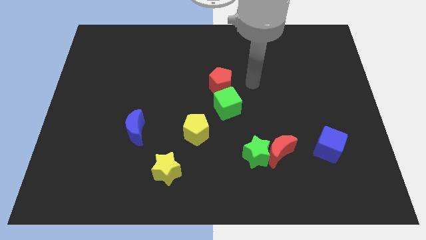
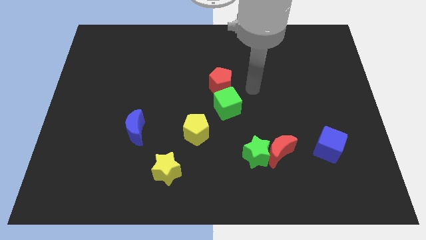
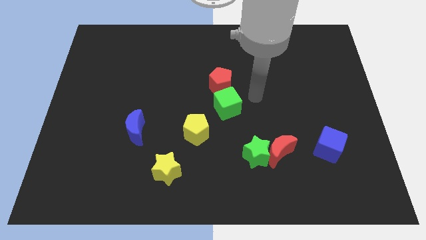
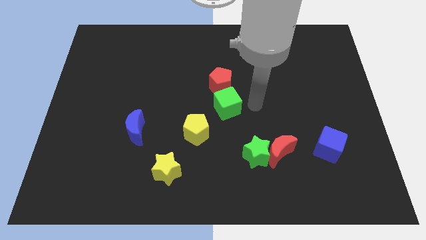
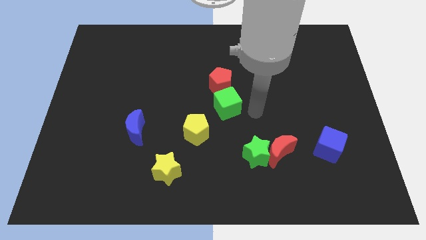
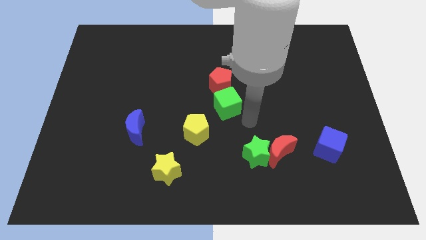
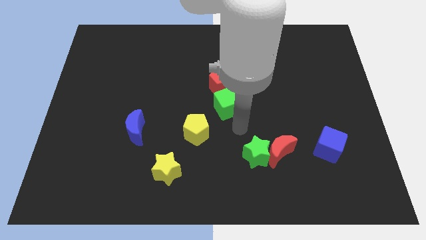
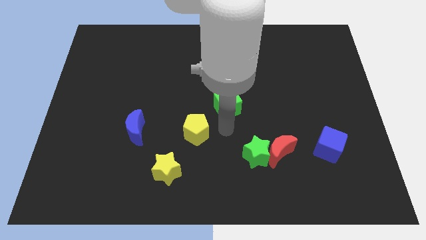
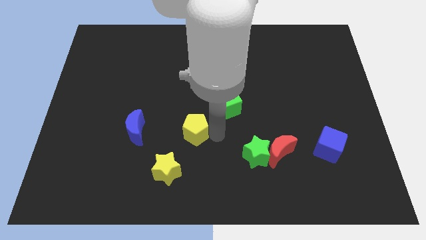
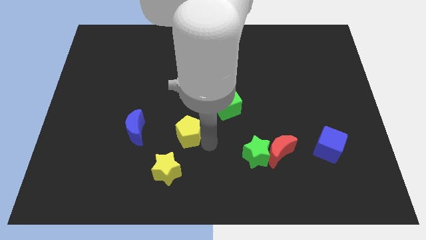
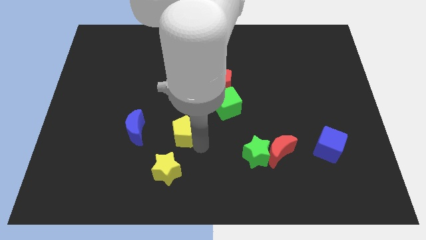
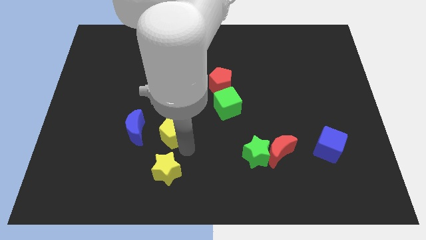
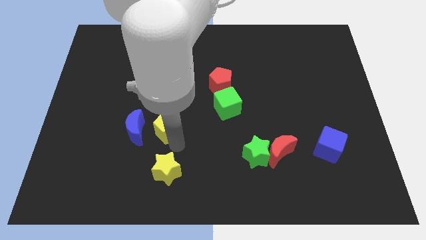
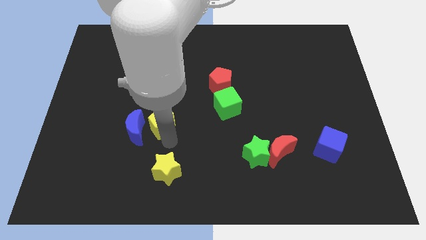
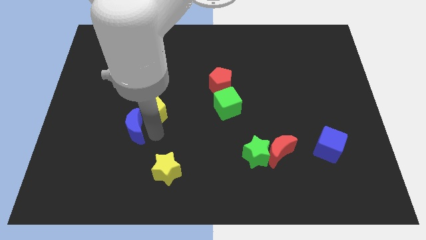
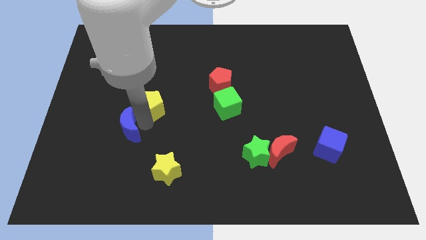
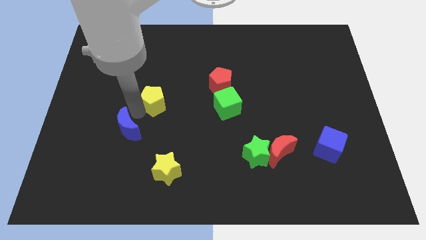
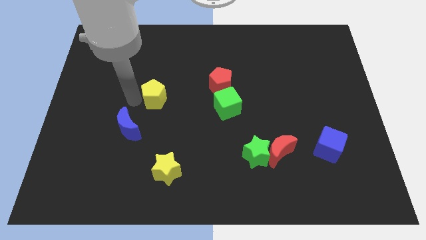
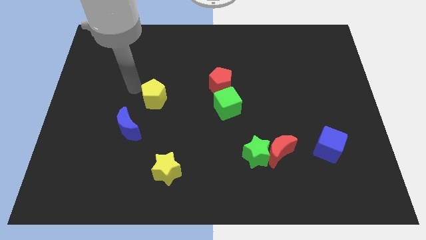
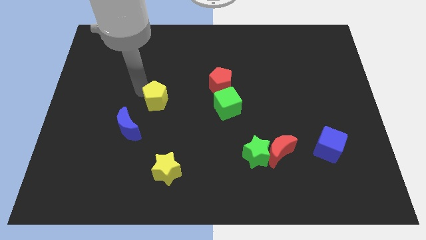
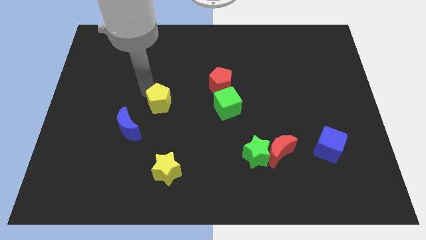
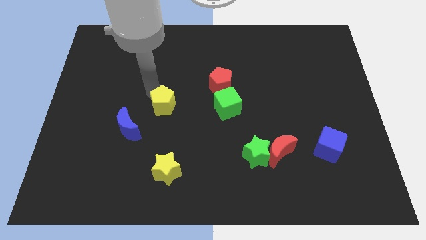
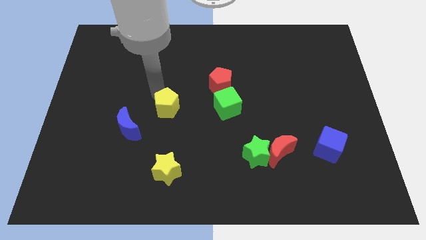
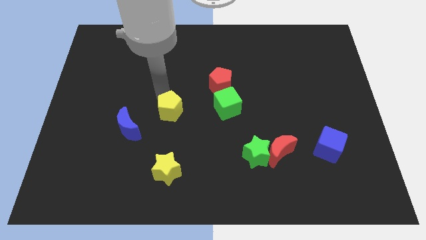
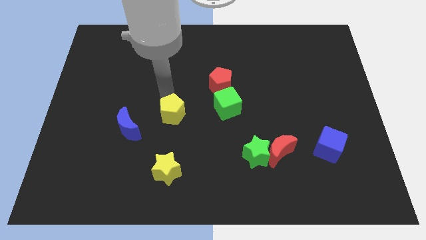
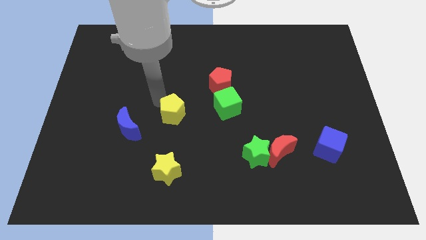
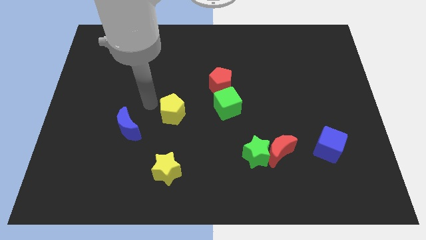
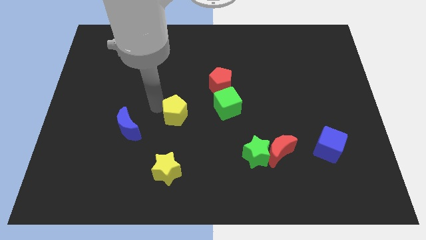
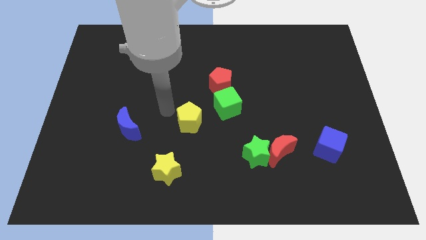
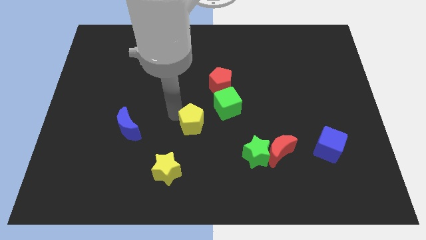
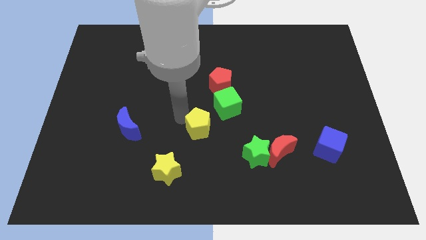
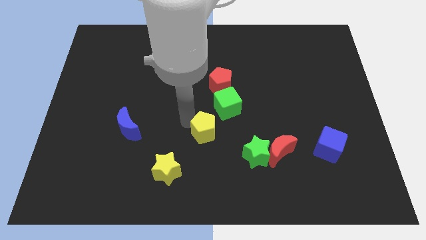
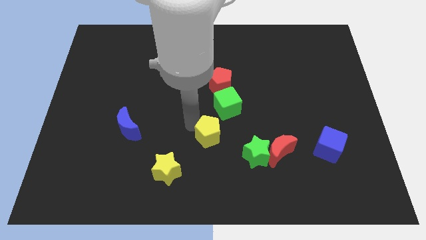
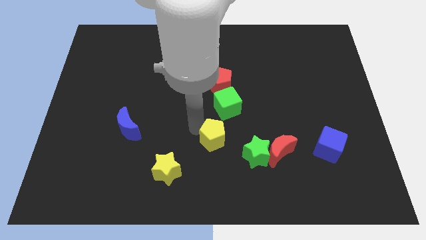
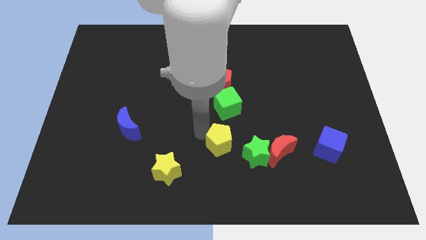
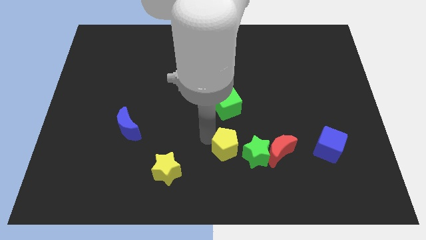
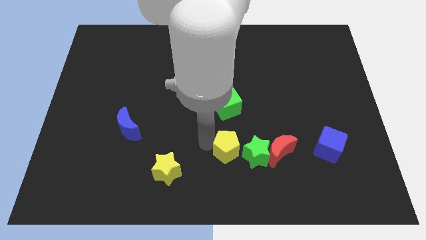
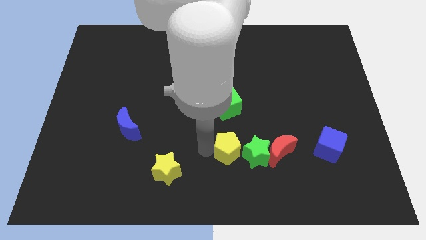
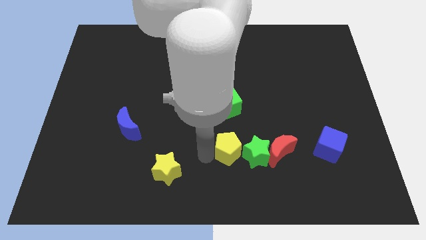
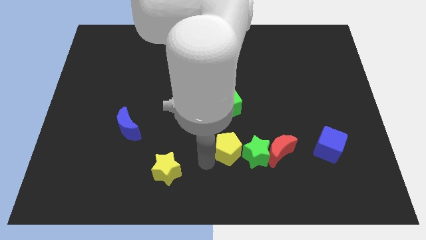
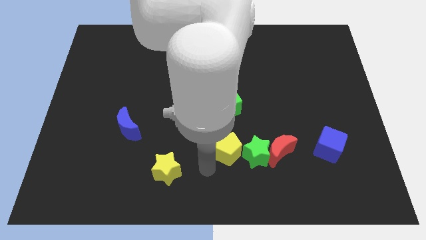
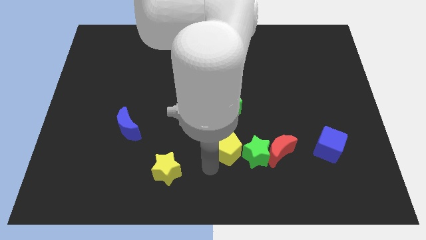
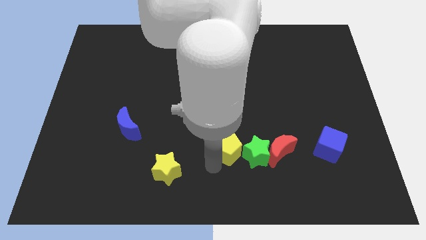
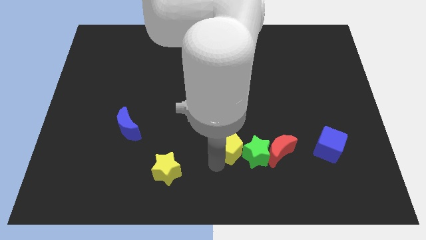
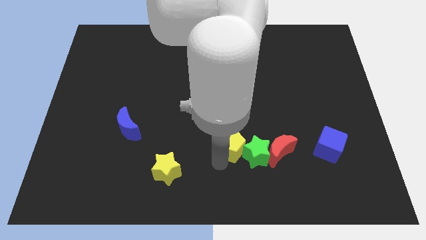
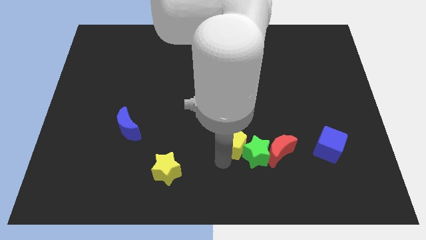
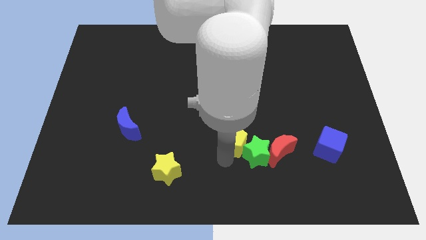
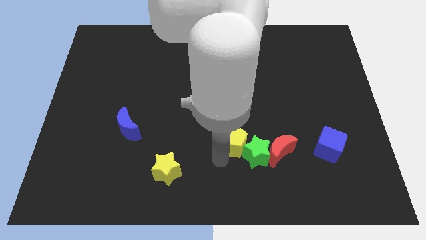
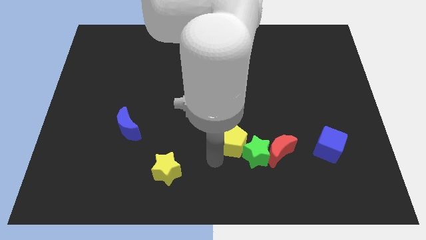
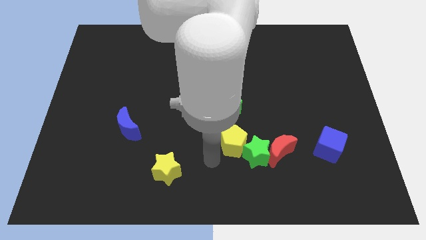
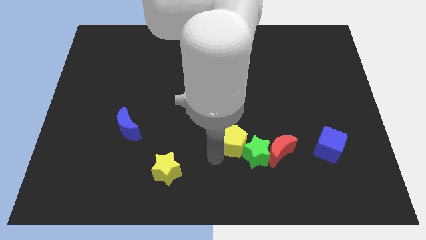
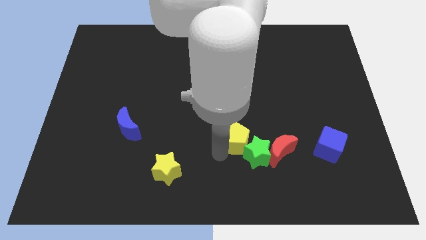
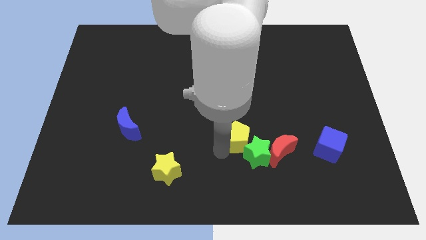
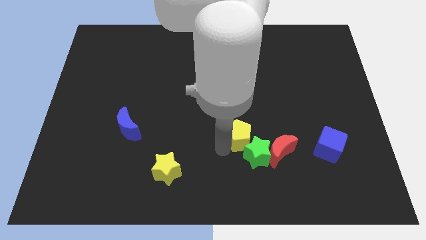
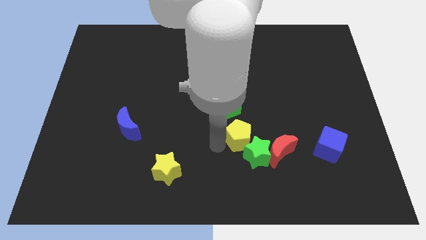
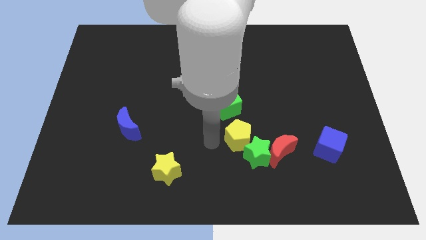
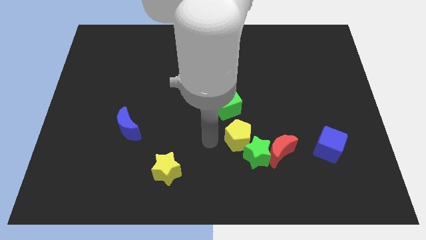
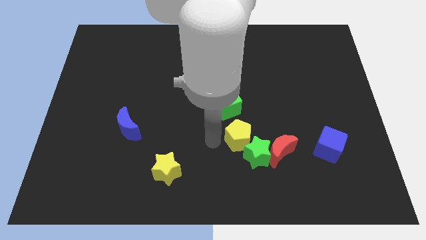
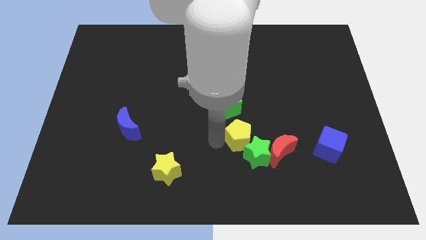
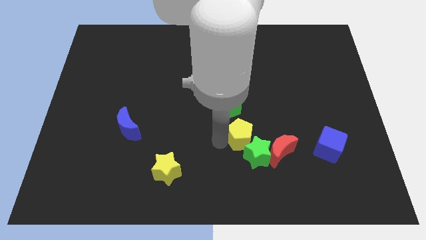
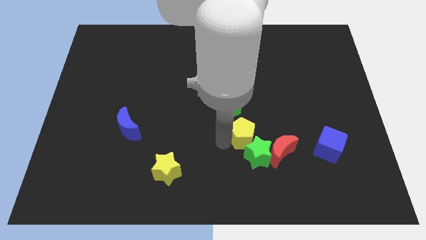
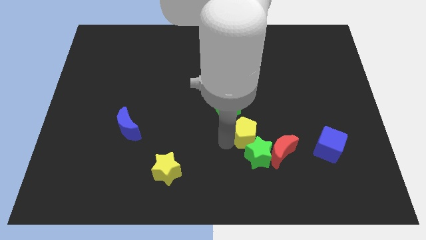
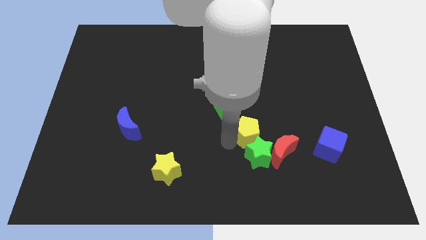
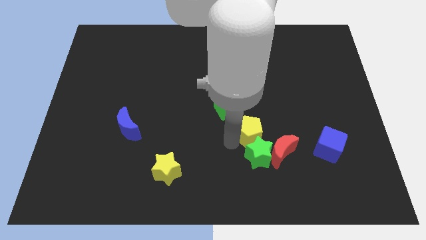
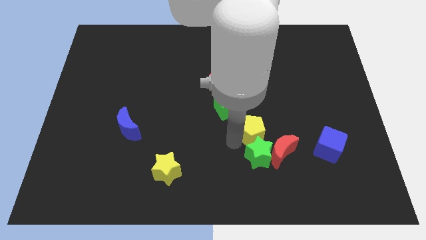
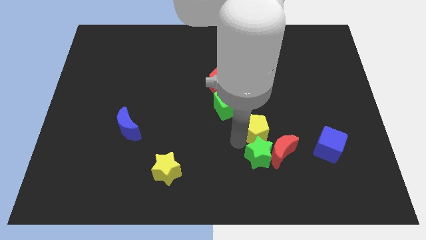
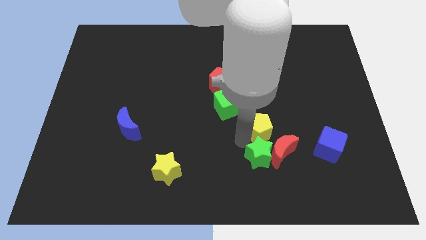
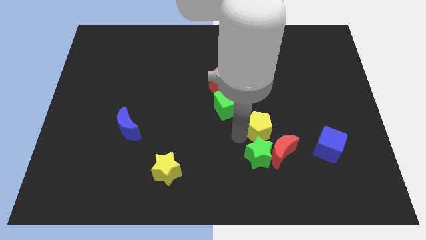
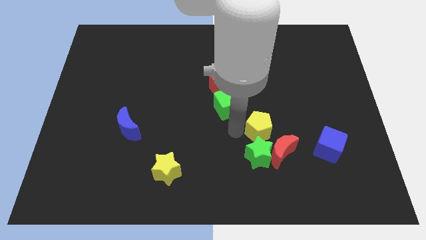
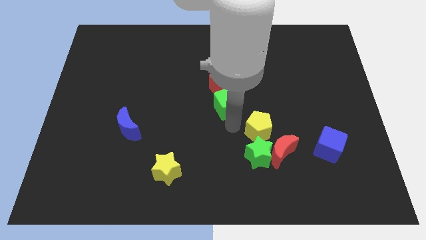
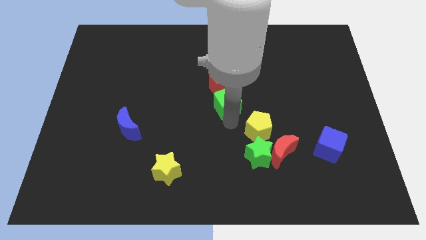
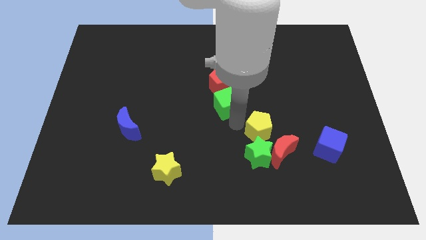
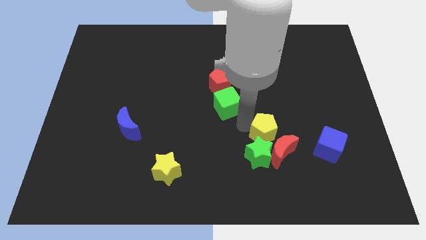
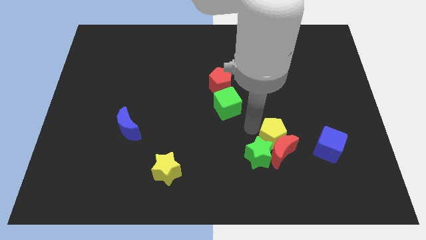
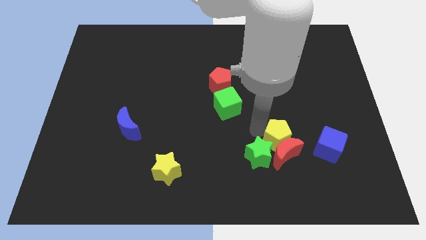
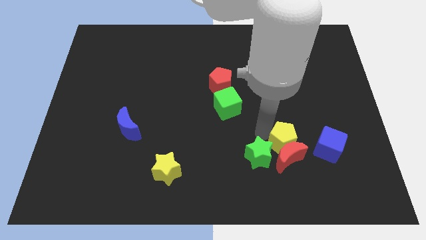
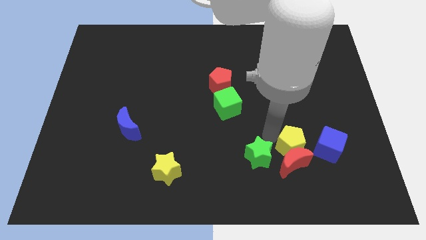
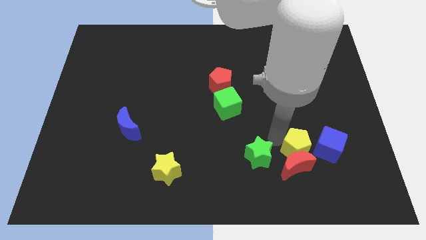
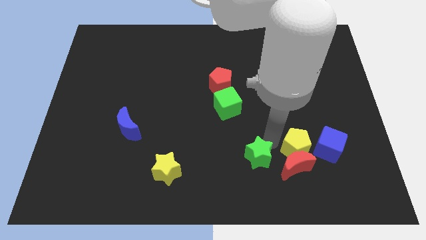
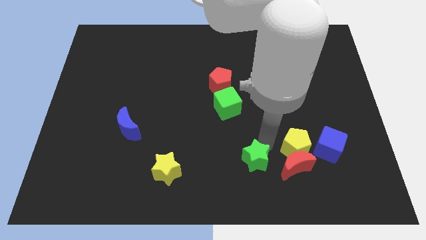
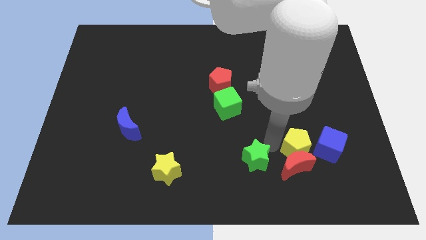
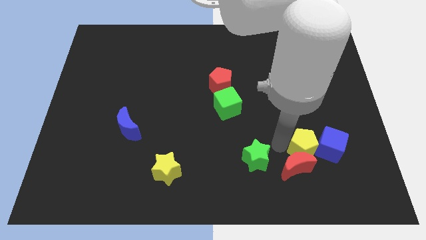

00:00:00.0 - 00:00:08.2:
push the yellow pentagon next to the blue cube
